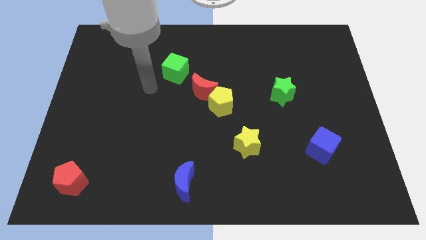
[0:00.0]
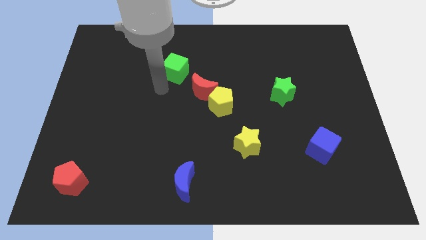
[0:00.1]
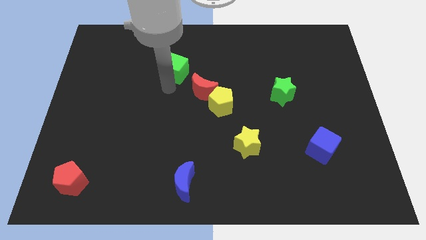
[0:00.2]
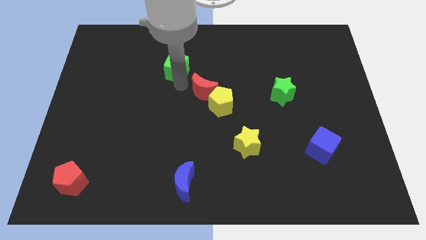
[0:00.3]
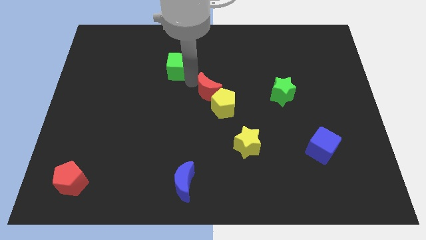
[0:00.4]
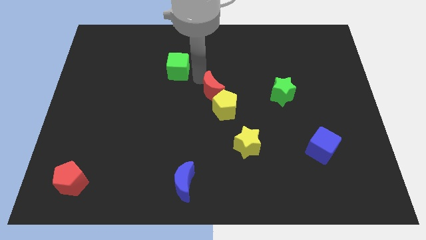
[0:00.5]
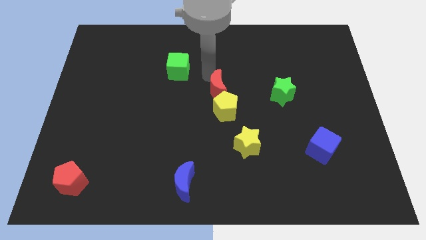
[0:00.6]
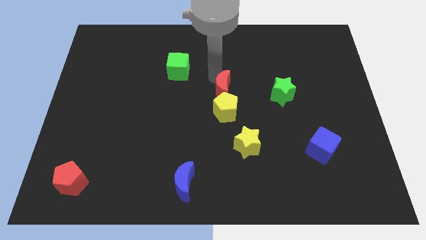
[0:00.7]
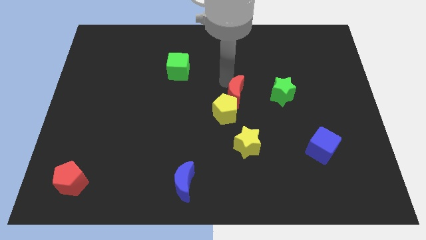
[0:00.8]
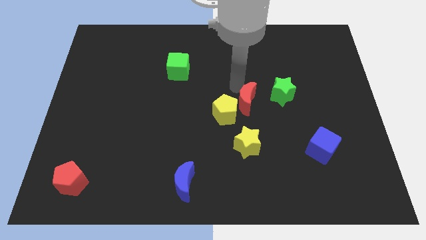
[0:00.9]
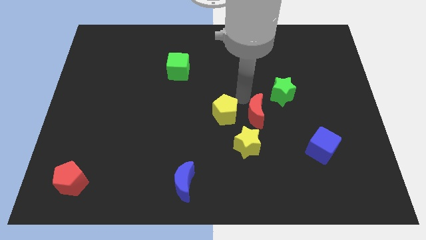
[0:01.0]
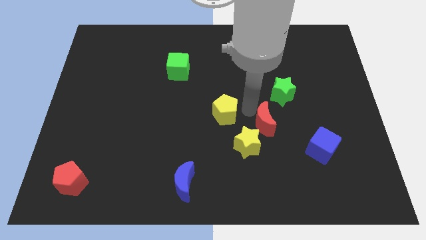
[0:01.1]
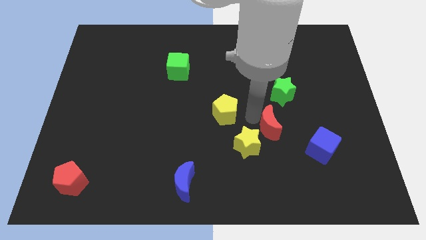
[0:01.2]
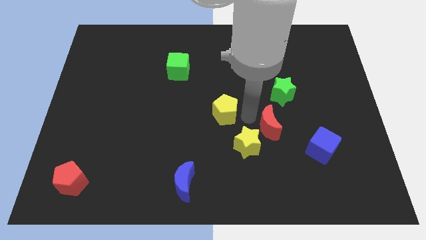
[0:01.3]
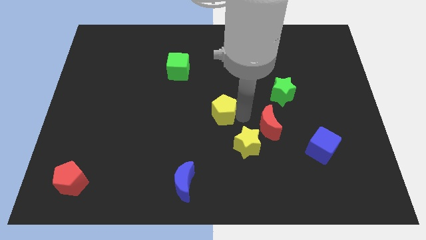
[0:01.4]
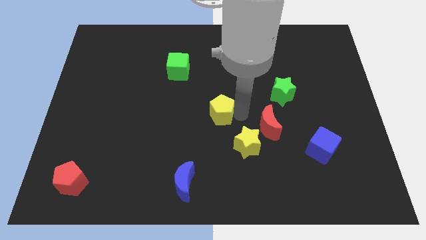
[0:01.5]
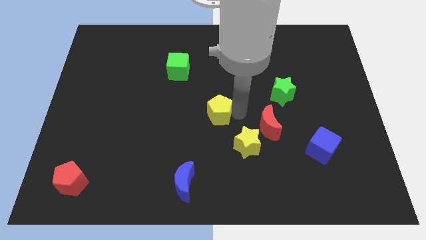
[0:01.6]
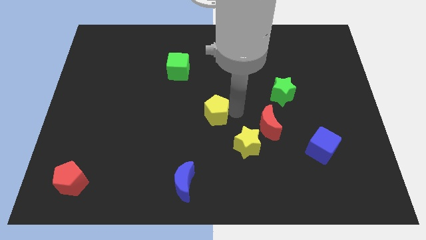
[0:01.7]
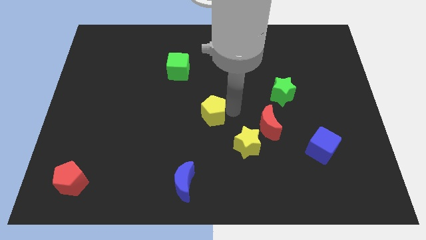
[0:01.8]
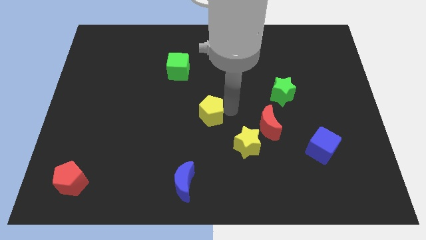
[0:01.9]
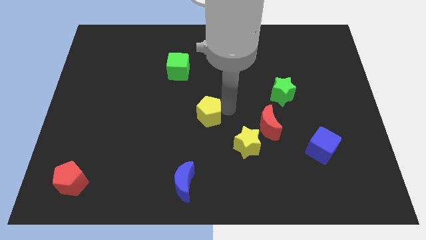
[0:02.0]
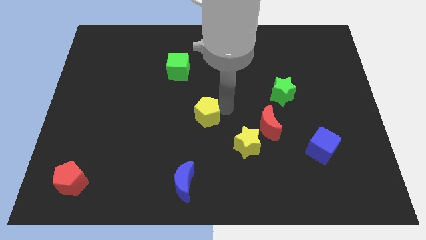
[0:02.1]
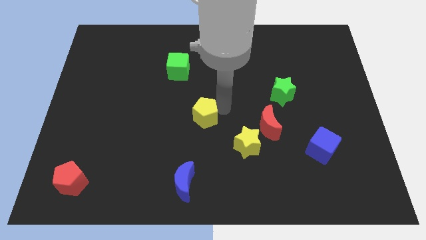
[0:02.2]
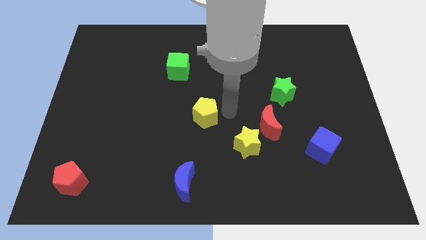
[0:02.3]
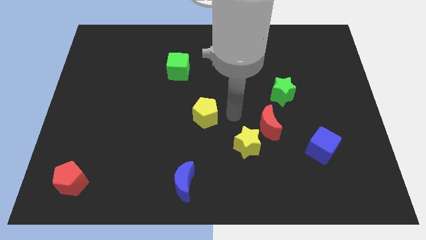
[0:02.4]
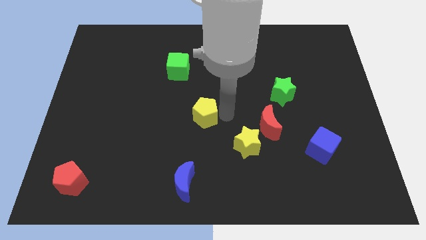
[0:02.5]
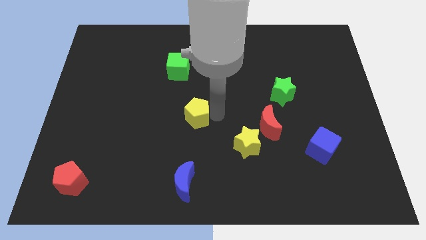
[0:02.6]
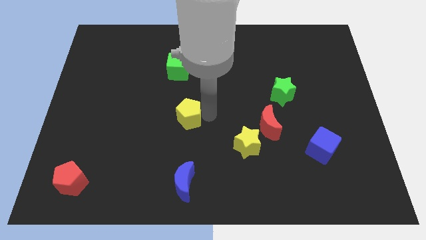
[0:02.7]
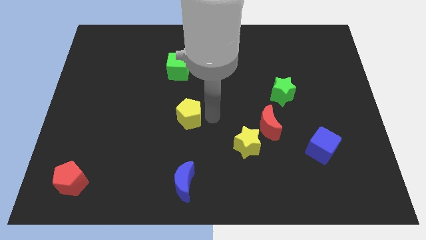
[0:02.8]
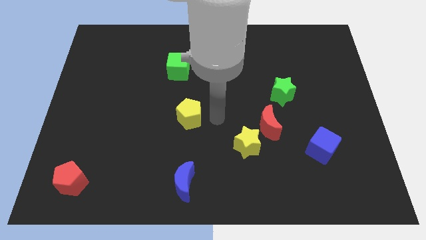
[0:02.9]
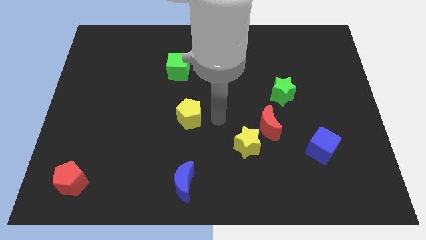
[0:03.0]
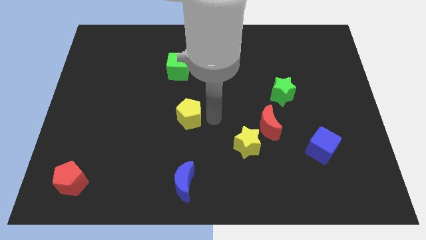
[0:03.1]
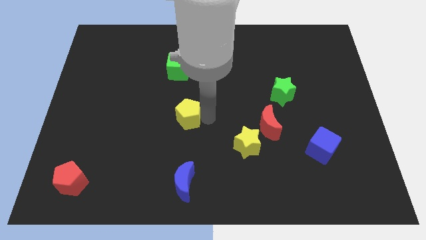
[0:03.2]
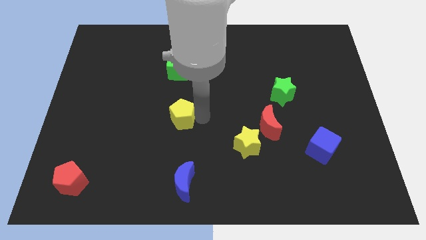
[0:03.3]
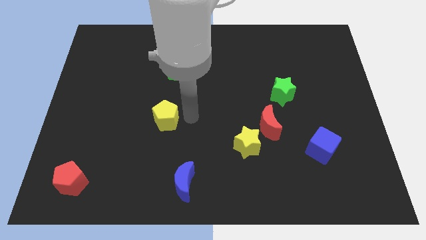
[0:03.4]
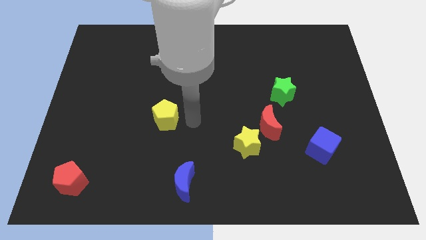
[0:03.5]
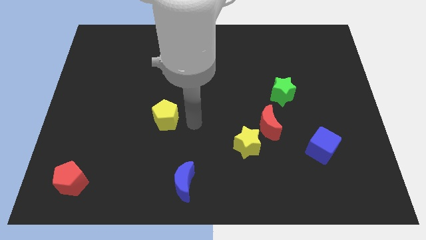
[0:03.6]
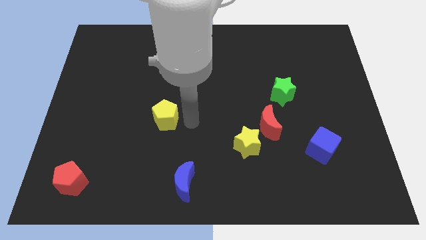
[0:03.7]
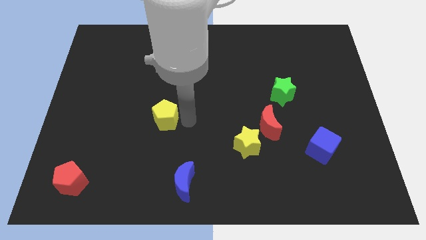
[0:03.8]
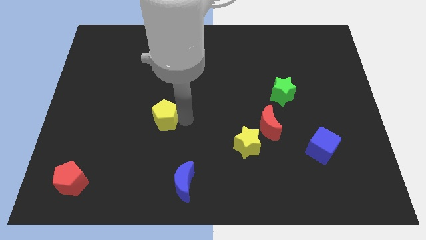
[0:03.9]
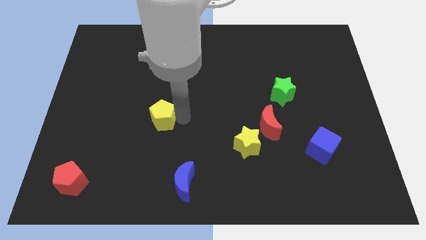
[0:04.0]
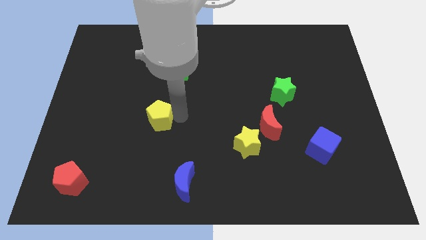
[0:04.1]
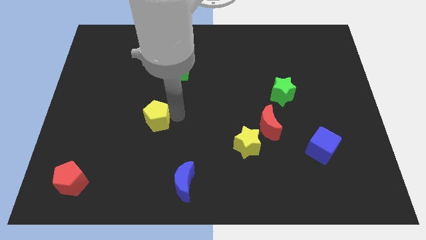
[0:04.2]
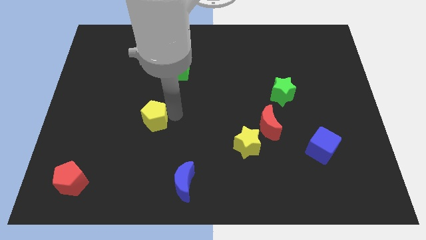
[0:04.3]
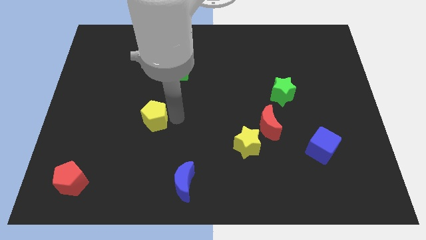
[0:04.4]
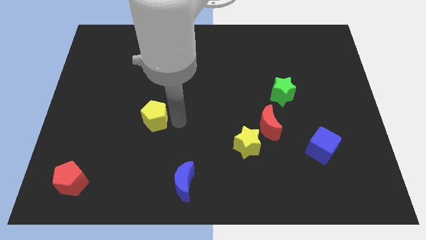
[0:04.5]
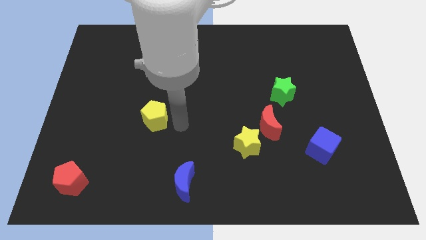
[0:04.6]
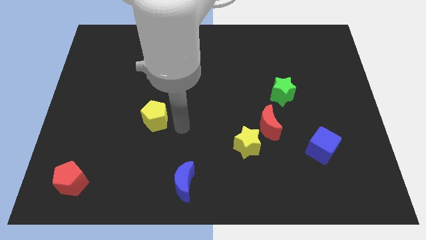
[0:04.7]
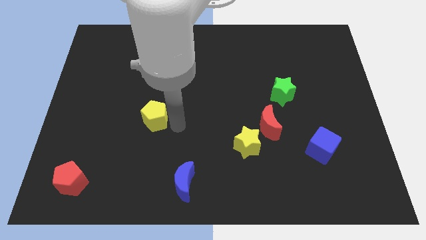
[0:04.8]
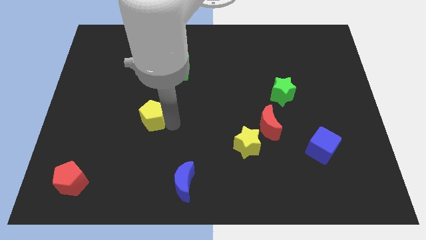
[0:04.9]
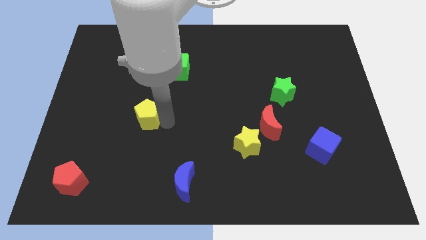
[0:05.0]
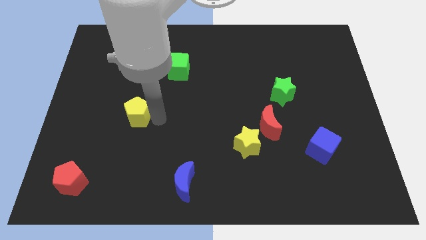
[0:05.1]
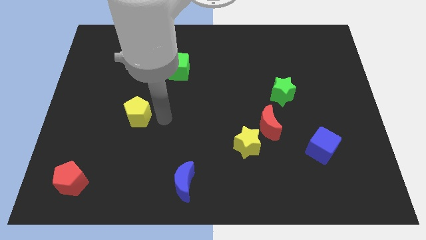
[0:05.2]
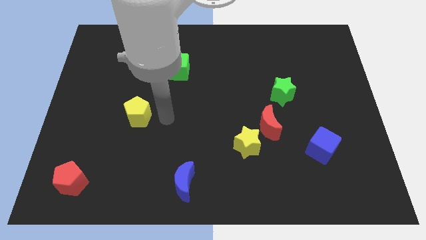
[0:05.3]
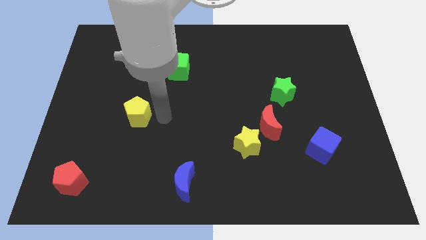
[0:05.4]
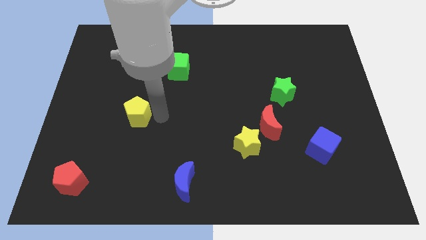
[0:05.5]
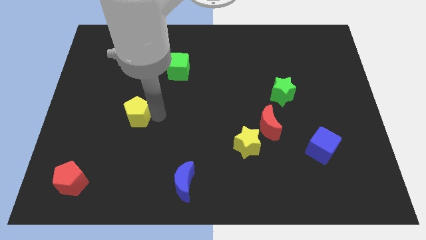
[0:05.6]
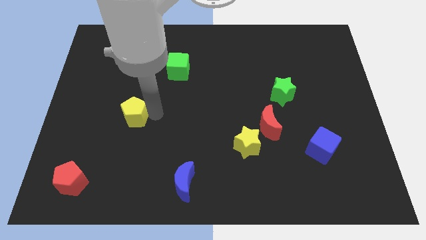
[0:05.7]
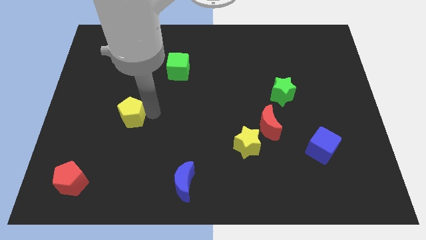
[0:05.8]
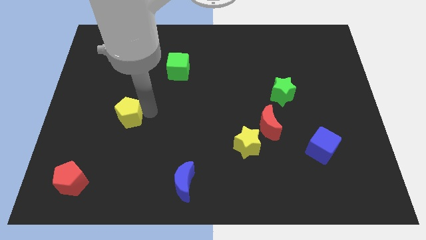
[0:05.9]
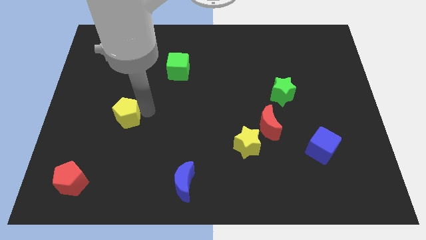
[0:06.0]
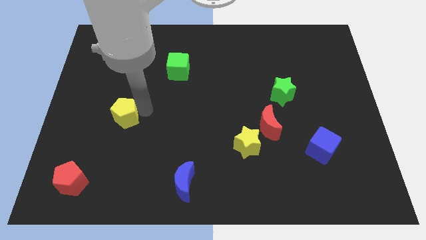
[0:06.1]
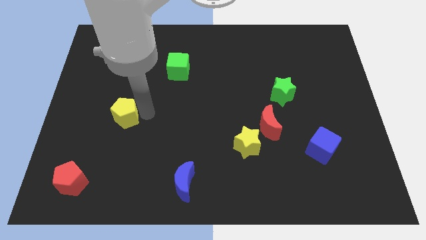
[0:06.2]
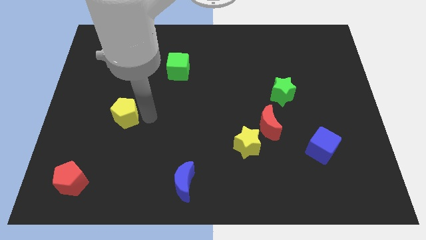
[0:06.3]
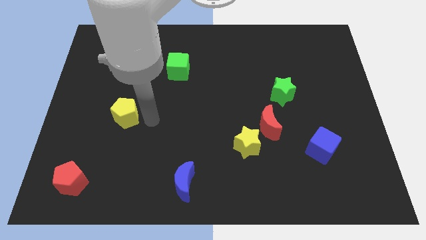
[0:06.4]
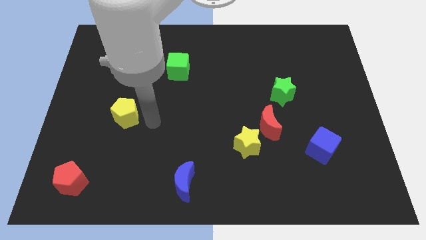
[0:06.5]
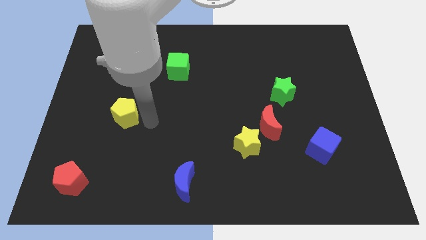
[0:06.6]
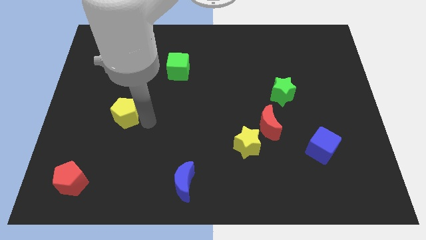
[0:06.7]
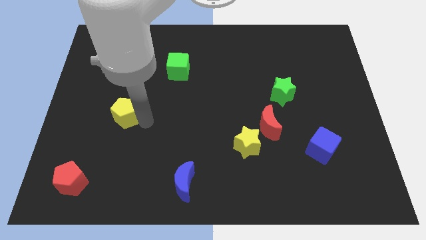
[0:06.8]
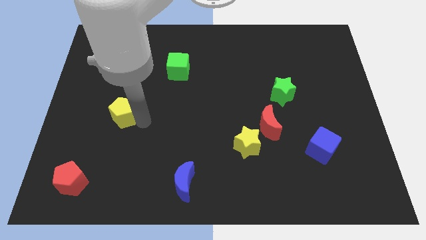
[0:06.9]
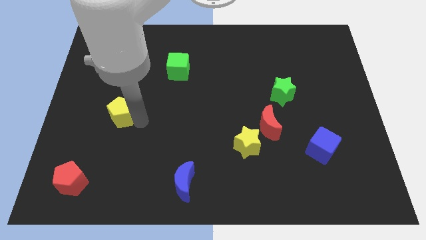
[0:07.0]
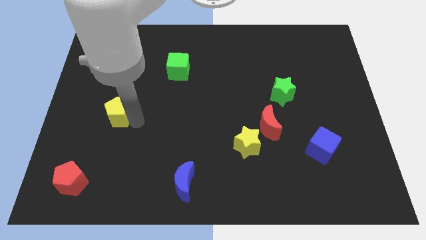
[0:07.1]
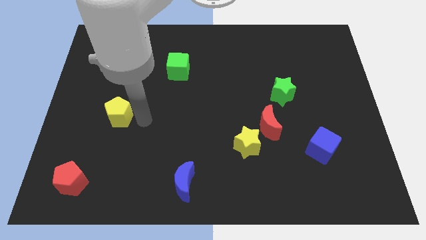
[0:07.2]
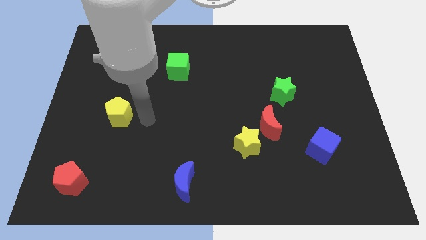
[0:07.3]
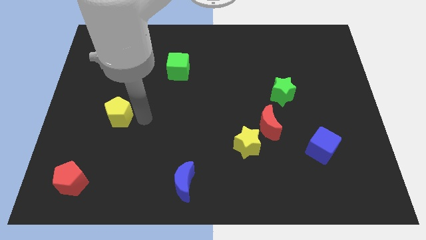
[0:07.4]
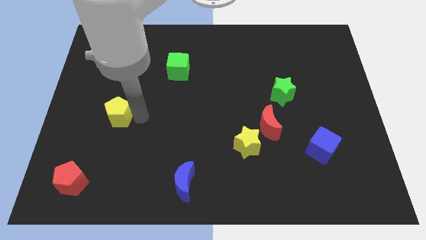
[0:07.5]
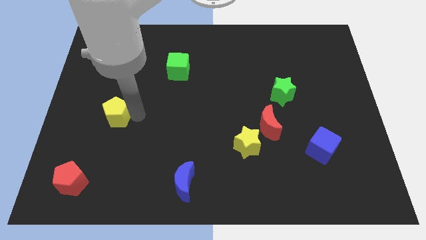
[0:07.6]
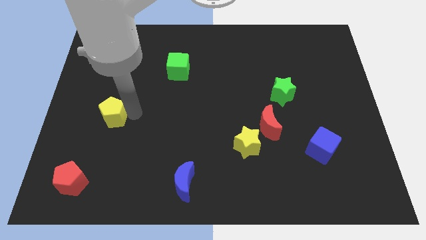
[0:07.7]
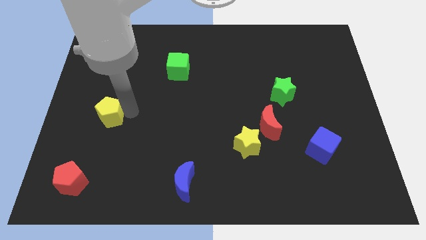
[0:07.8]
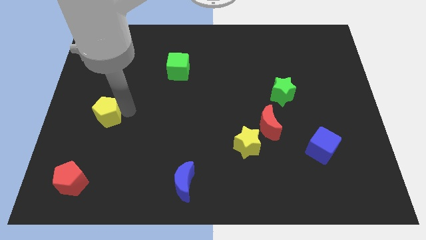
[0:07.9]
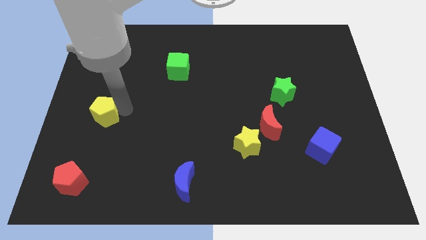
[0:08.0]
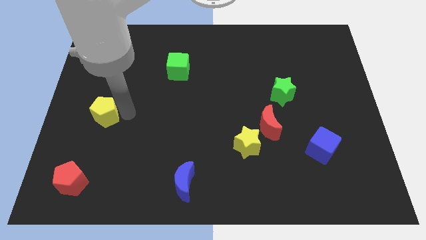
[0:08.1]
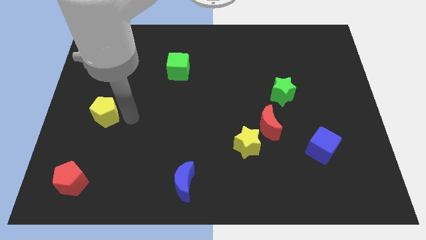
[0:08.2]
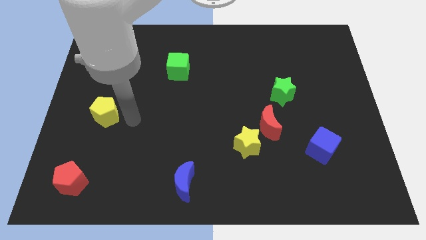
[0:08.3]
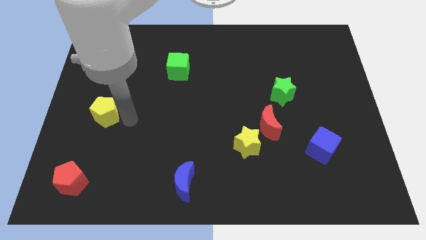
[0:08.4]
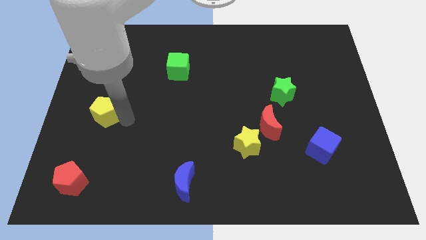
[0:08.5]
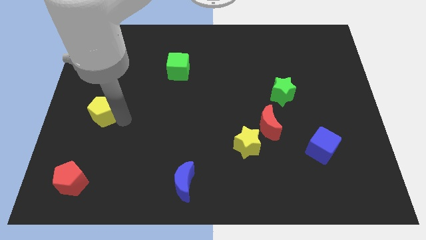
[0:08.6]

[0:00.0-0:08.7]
put the yellow pentagon to the left side of the board
